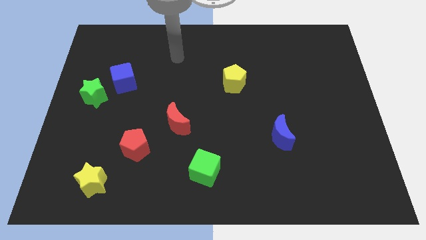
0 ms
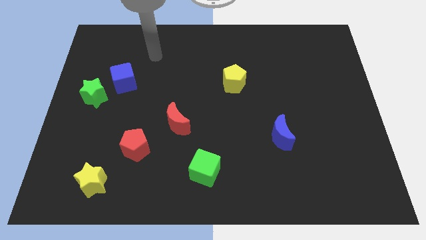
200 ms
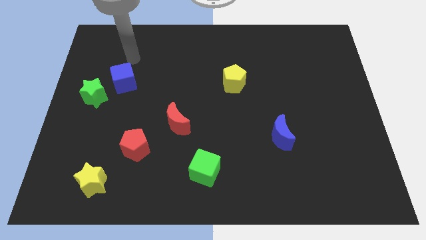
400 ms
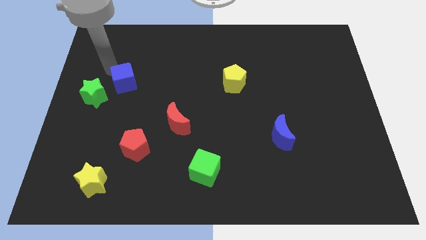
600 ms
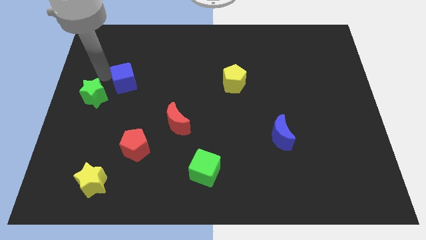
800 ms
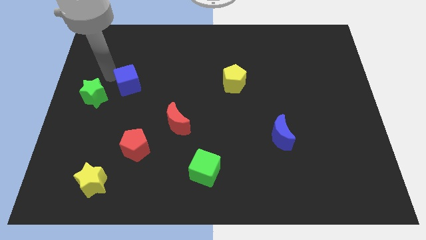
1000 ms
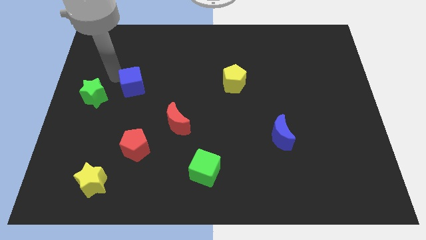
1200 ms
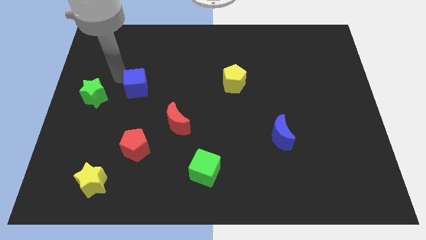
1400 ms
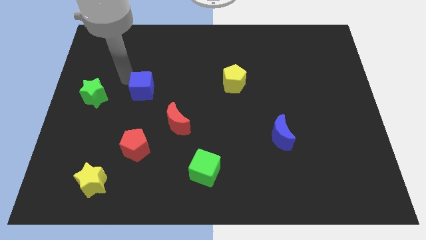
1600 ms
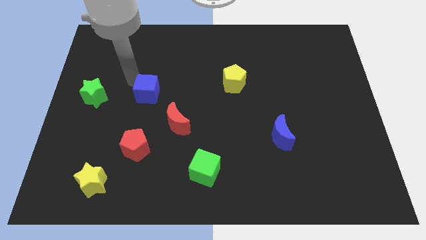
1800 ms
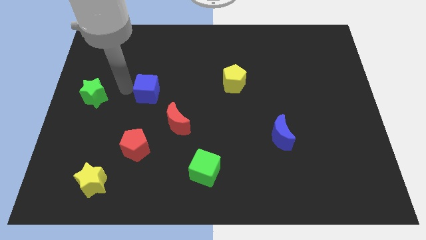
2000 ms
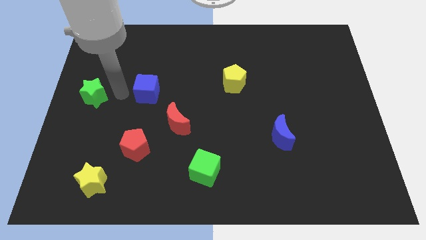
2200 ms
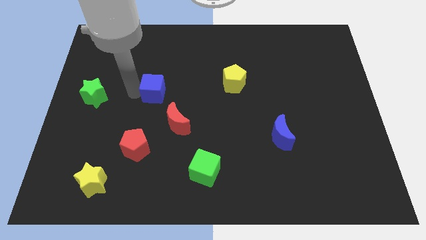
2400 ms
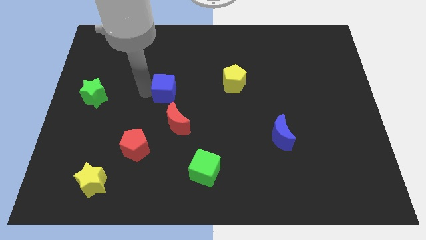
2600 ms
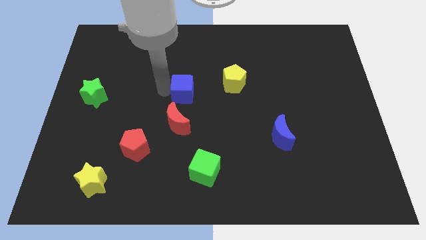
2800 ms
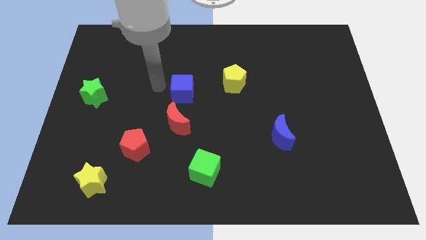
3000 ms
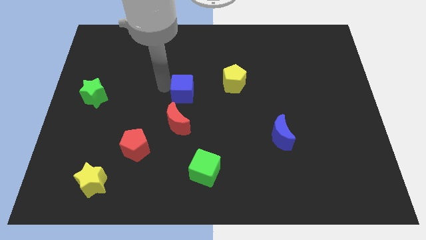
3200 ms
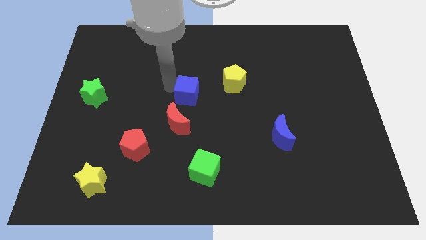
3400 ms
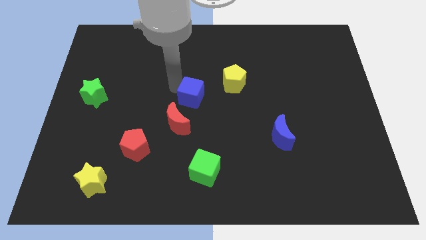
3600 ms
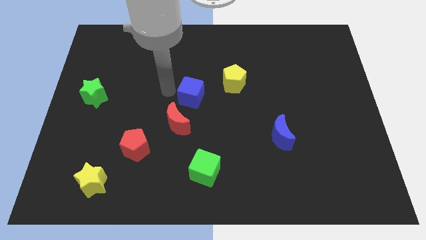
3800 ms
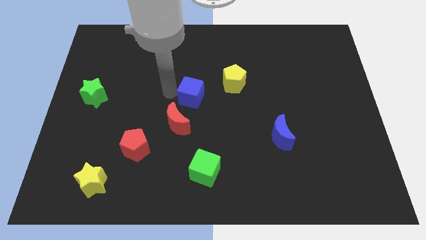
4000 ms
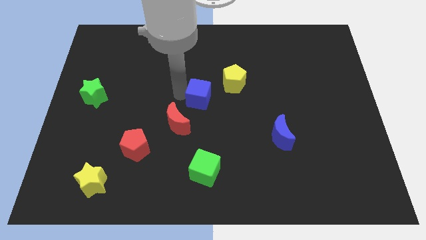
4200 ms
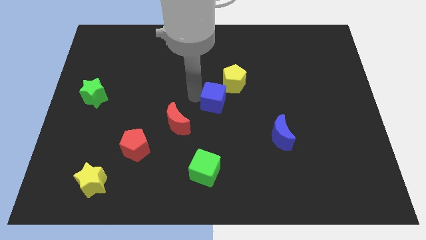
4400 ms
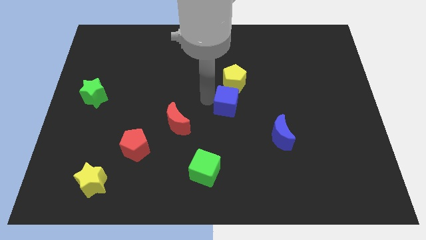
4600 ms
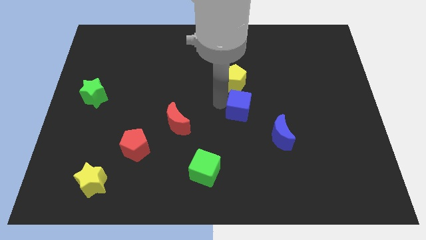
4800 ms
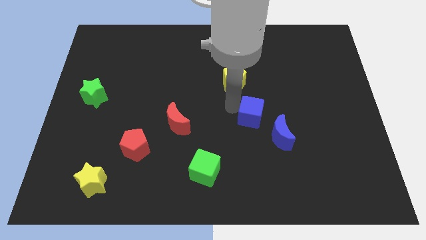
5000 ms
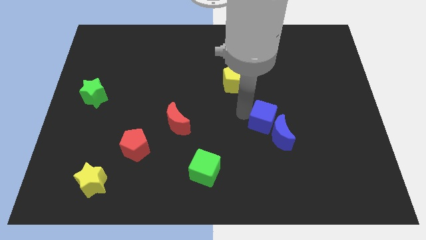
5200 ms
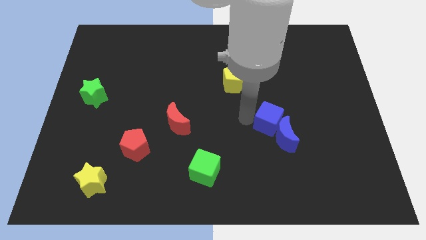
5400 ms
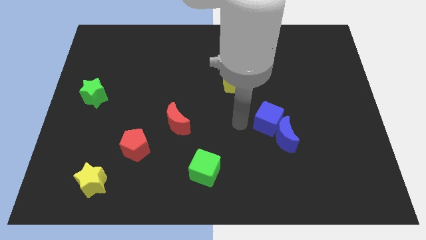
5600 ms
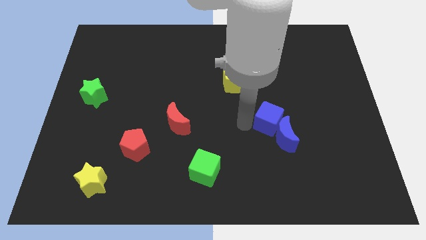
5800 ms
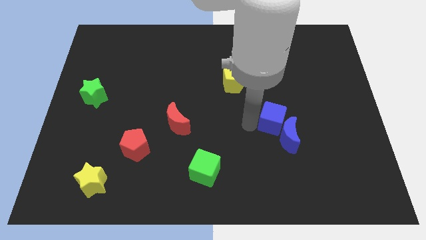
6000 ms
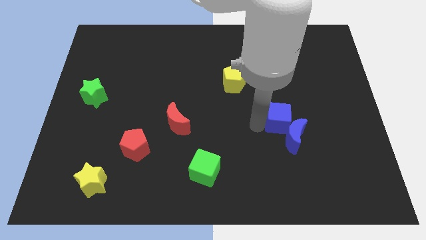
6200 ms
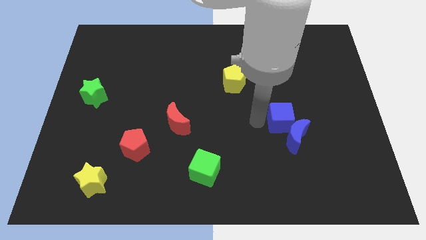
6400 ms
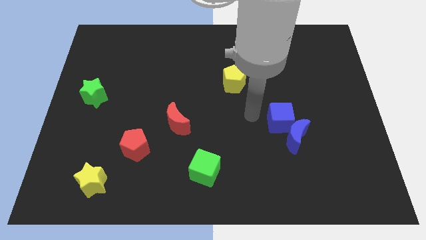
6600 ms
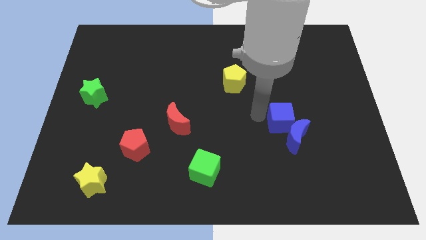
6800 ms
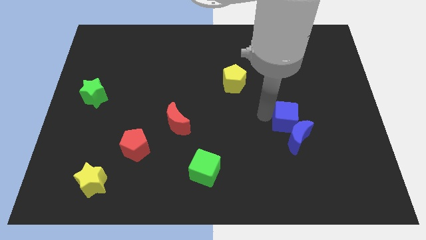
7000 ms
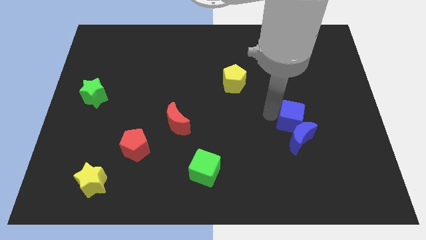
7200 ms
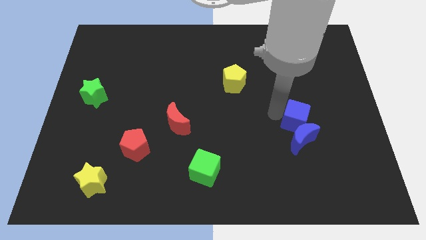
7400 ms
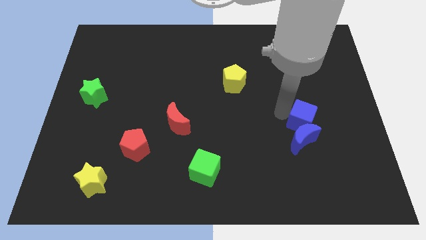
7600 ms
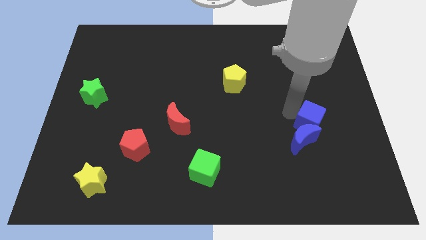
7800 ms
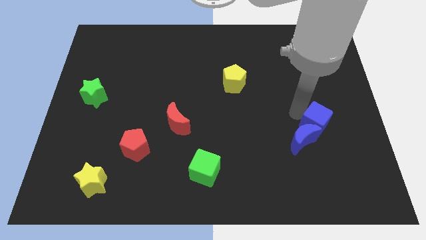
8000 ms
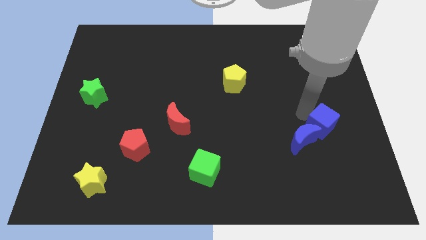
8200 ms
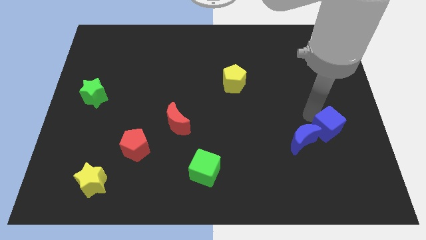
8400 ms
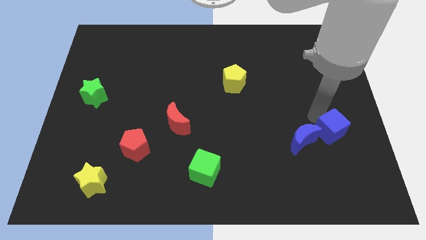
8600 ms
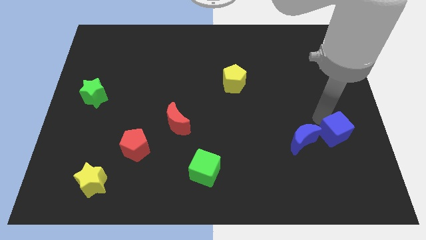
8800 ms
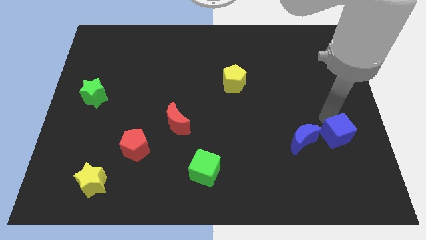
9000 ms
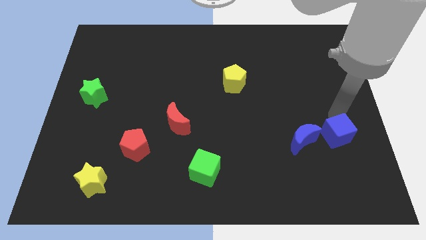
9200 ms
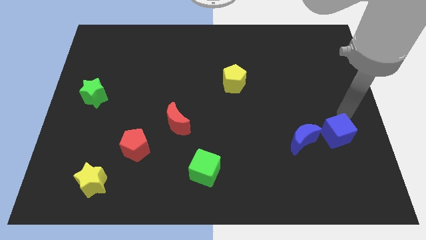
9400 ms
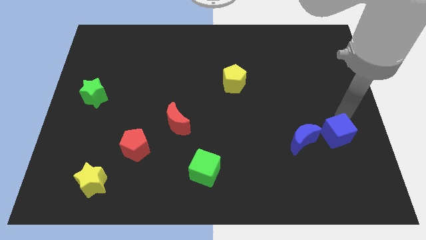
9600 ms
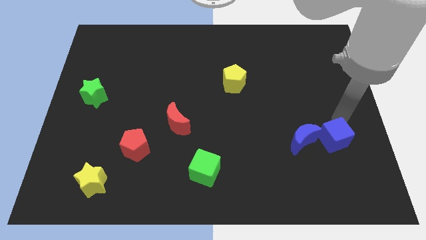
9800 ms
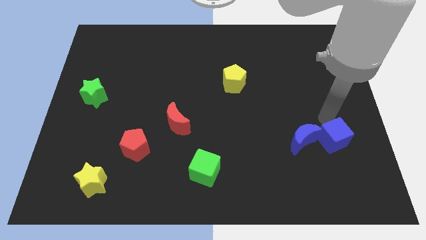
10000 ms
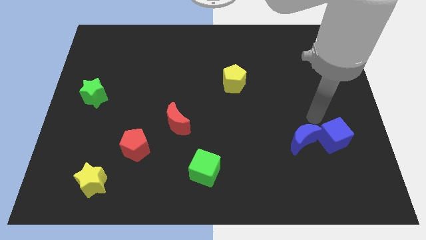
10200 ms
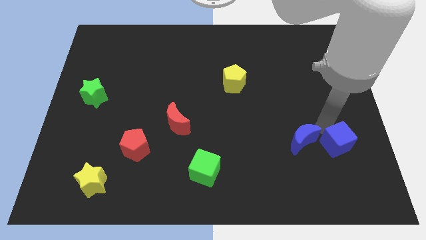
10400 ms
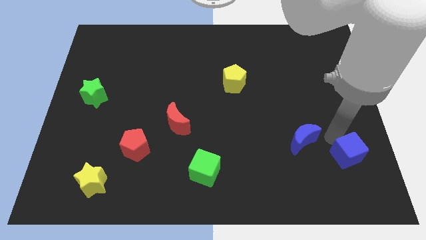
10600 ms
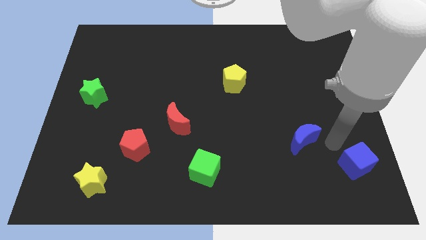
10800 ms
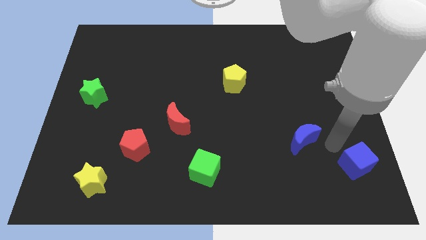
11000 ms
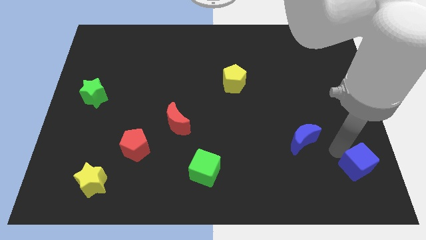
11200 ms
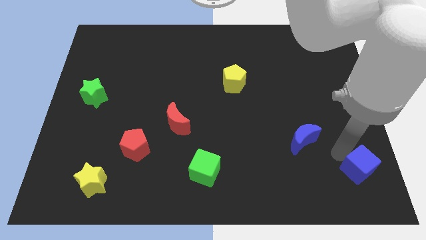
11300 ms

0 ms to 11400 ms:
push the blue cube to the bottom right

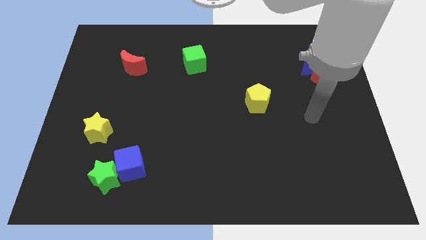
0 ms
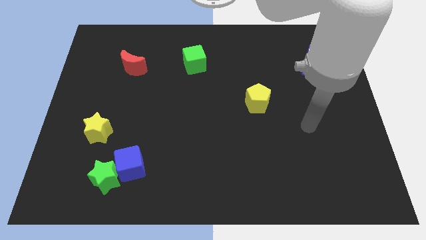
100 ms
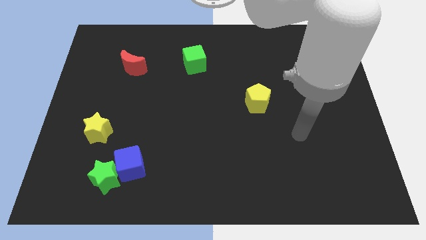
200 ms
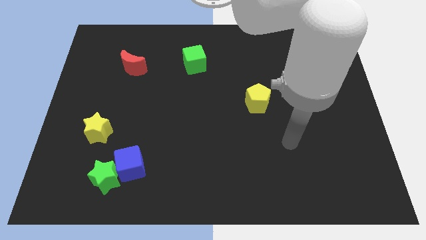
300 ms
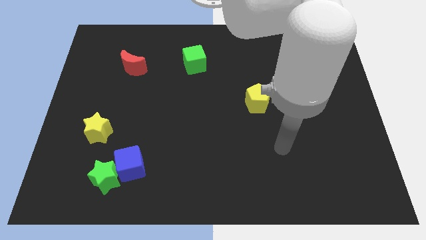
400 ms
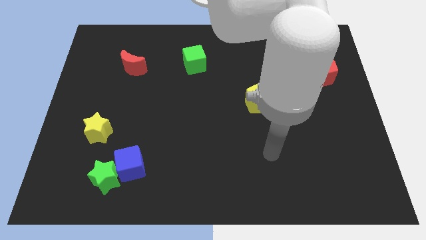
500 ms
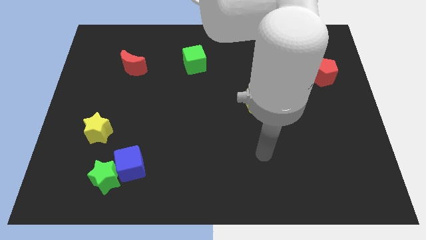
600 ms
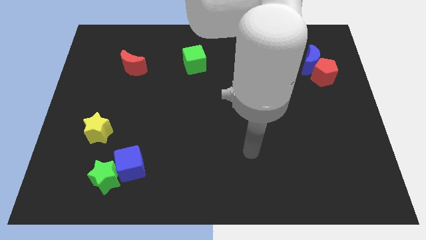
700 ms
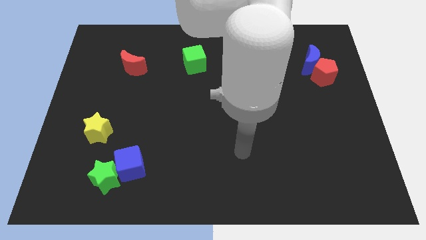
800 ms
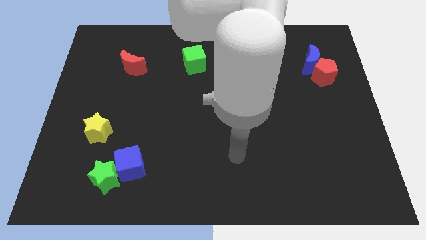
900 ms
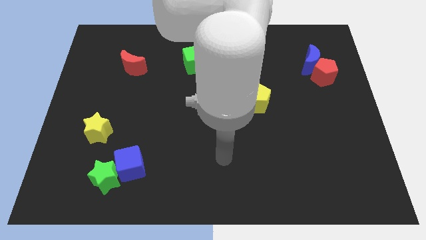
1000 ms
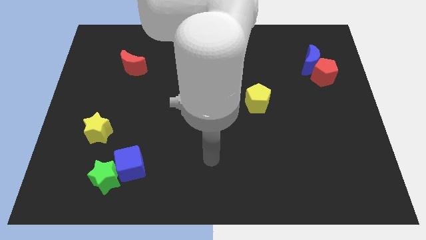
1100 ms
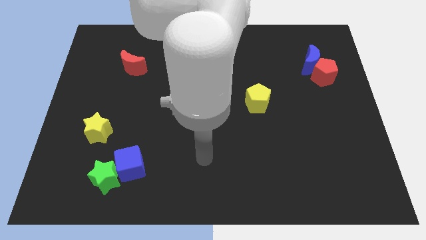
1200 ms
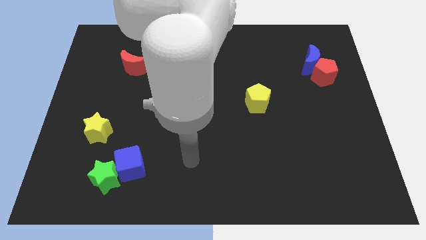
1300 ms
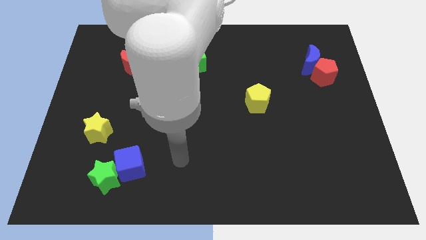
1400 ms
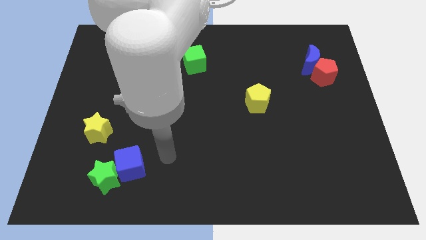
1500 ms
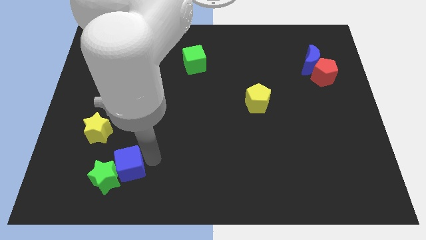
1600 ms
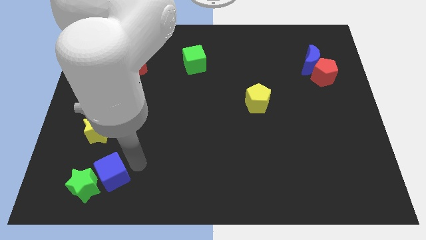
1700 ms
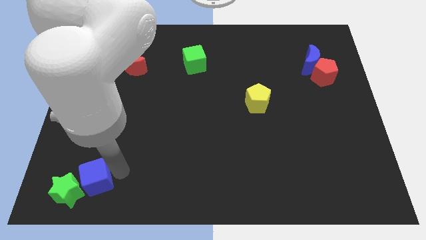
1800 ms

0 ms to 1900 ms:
slide the green star to the bottom left of the board
